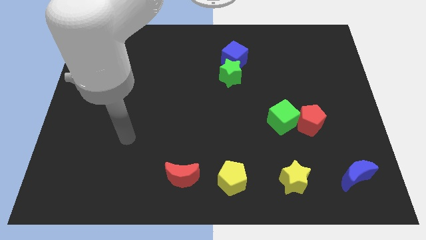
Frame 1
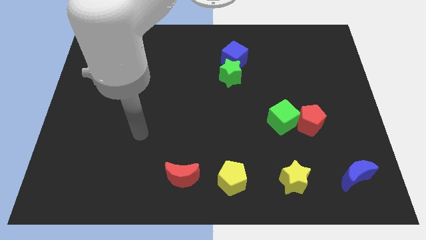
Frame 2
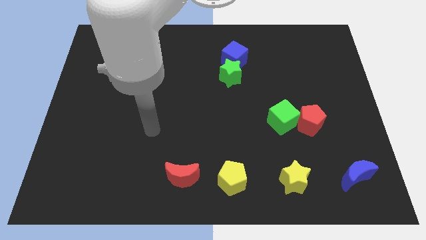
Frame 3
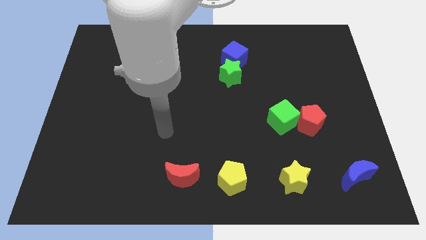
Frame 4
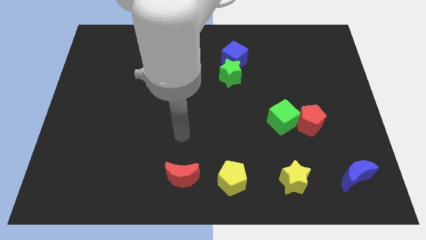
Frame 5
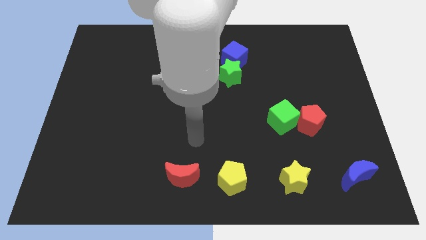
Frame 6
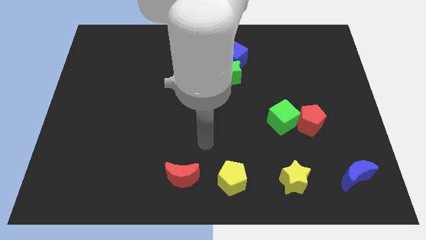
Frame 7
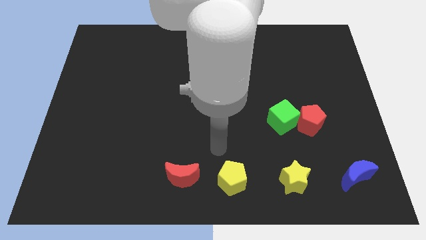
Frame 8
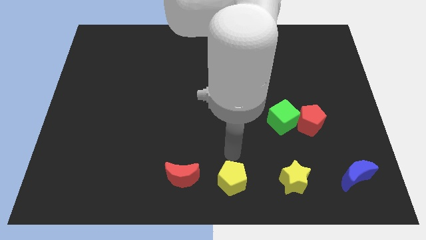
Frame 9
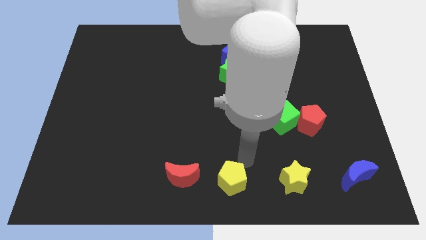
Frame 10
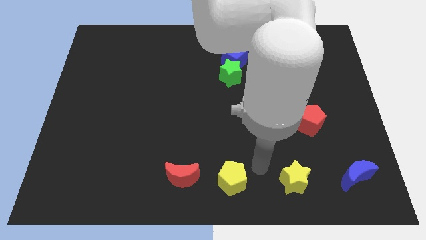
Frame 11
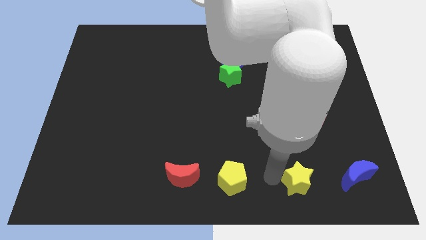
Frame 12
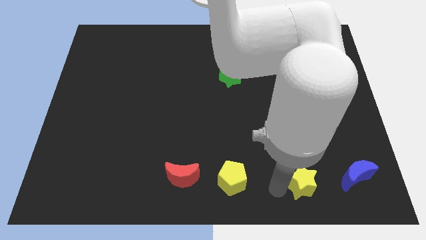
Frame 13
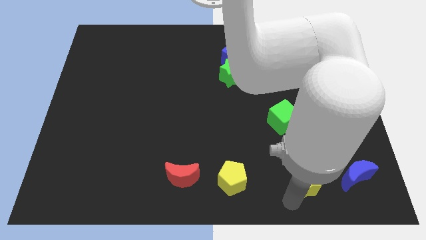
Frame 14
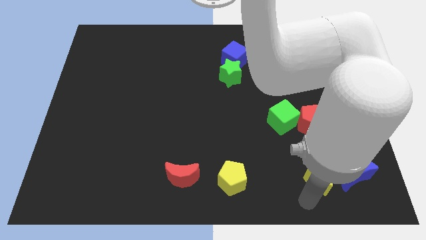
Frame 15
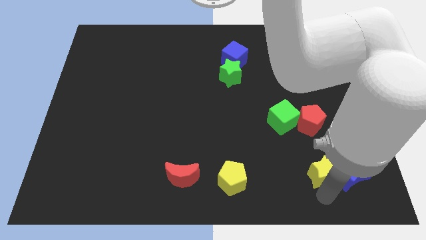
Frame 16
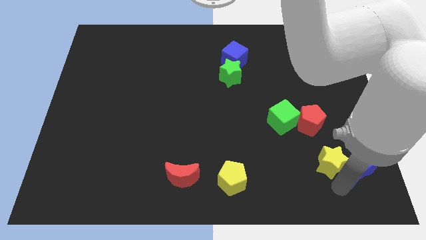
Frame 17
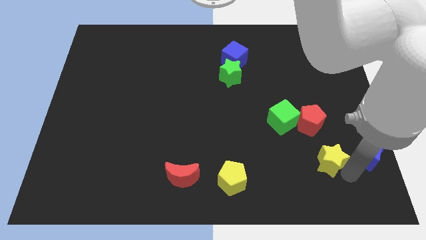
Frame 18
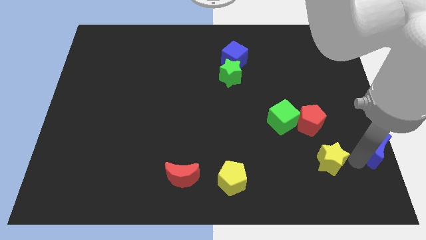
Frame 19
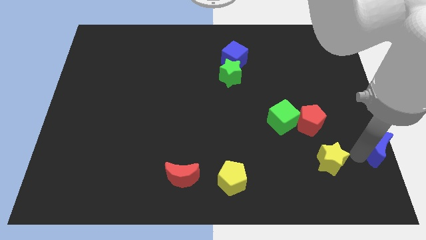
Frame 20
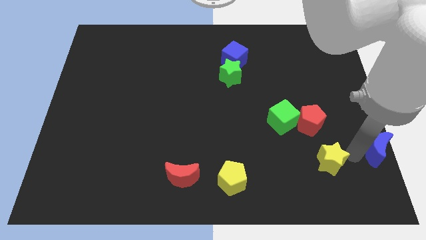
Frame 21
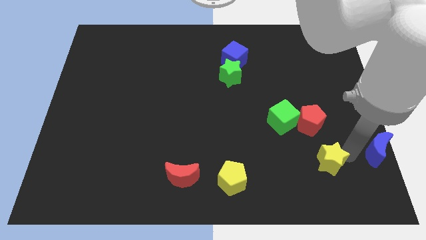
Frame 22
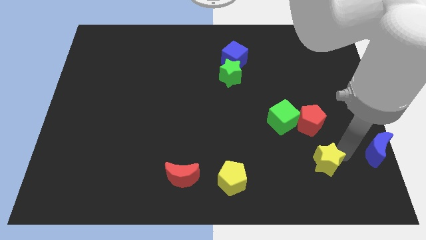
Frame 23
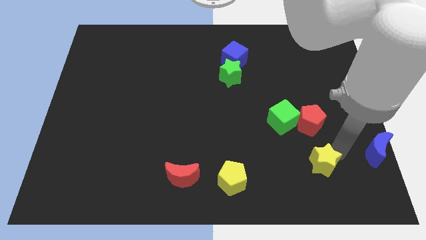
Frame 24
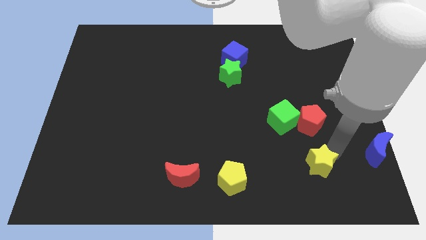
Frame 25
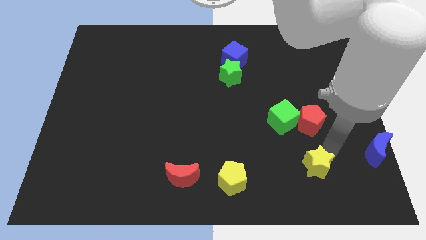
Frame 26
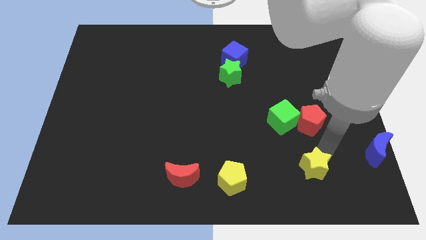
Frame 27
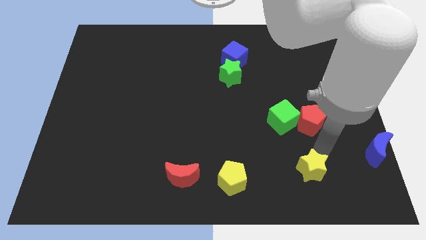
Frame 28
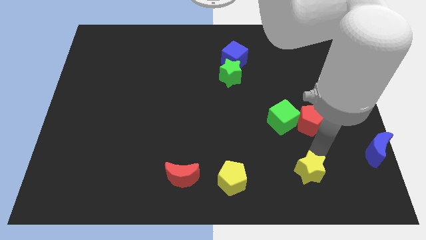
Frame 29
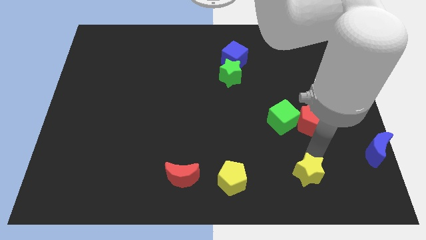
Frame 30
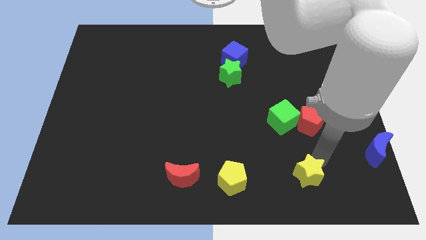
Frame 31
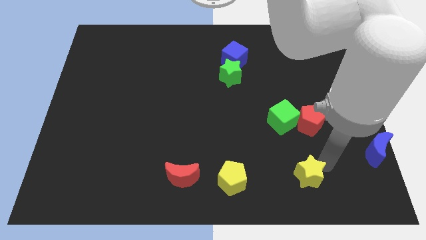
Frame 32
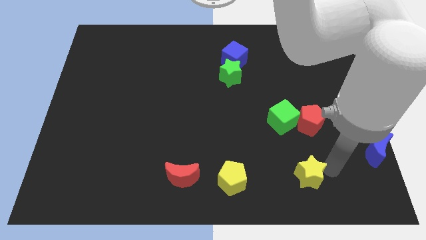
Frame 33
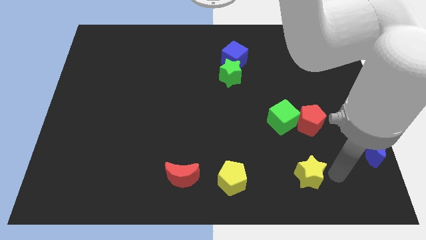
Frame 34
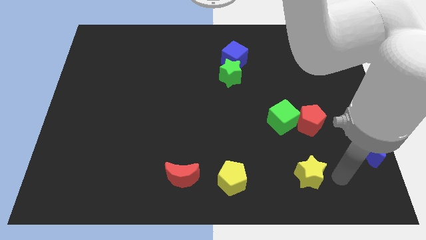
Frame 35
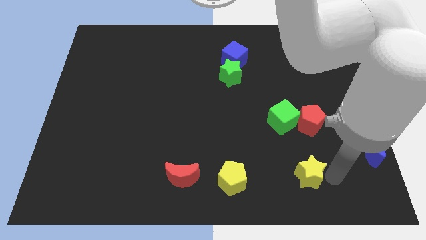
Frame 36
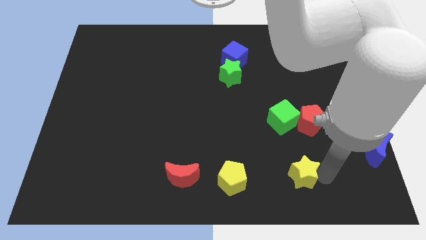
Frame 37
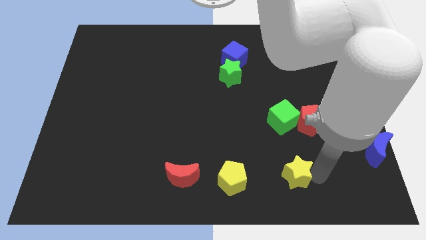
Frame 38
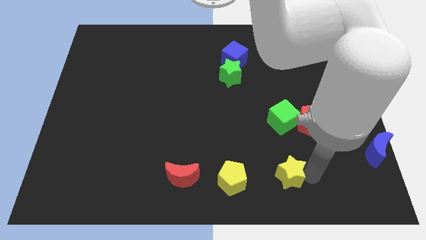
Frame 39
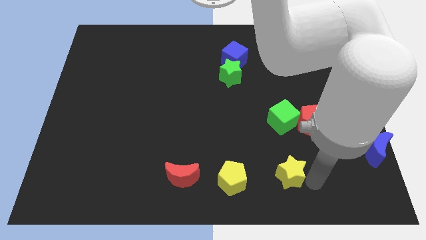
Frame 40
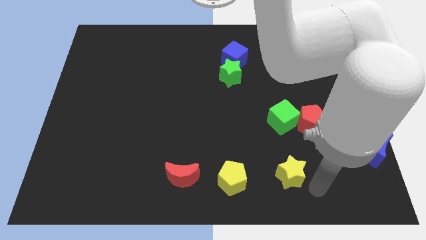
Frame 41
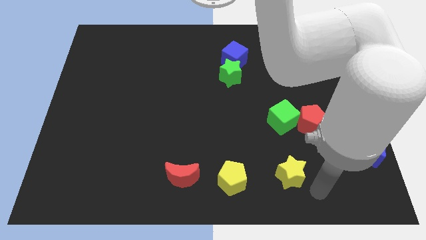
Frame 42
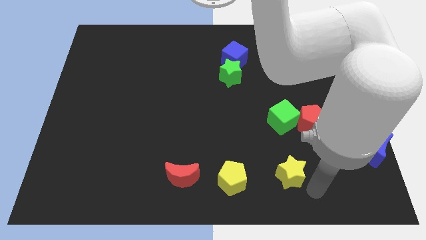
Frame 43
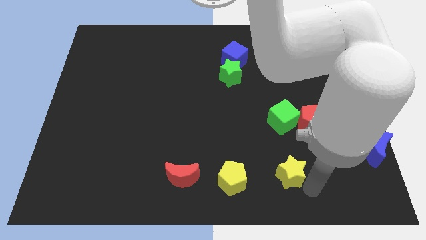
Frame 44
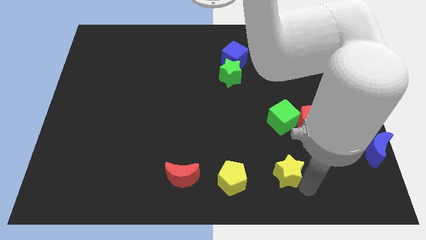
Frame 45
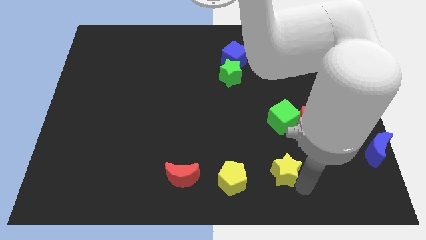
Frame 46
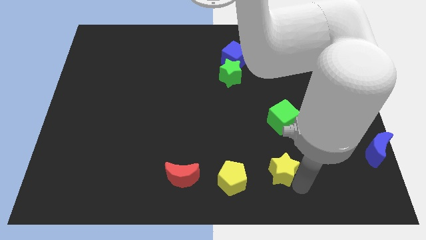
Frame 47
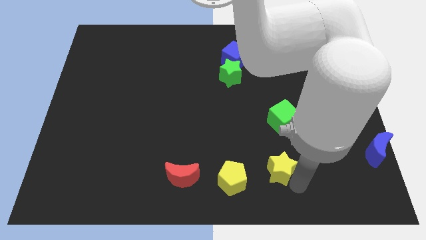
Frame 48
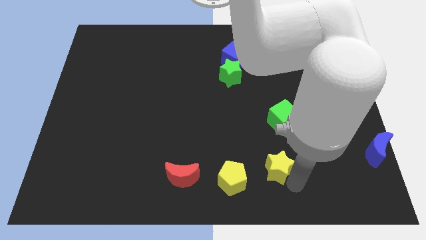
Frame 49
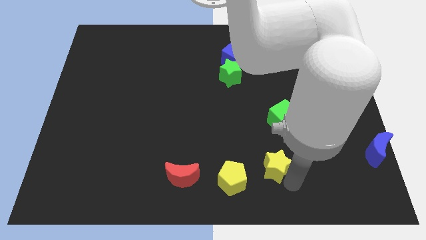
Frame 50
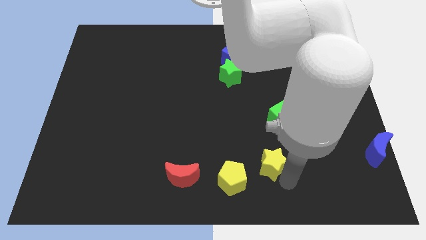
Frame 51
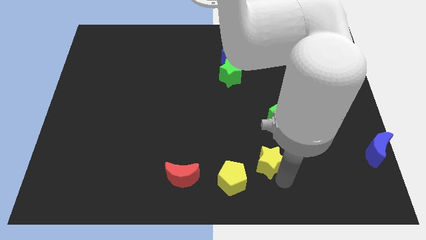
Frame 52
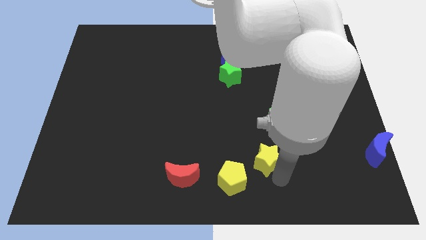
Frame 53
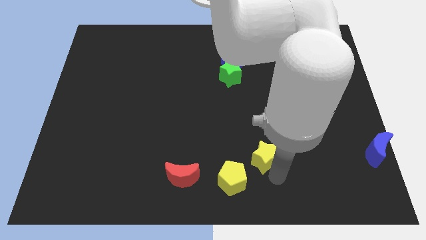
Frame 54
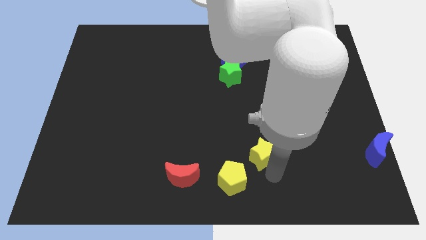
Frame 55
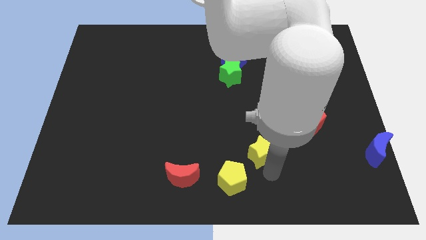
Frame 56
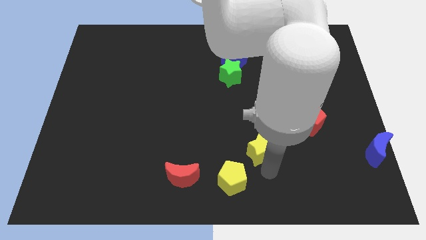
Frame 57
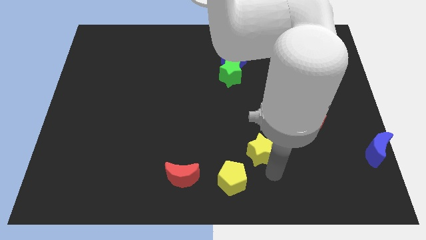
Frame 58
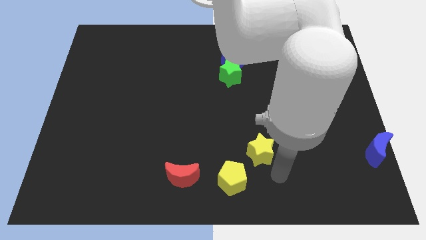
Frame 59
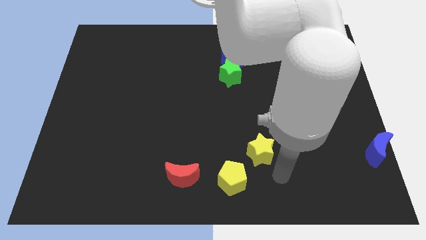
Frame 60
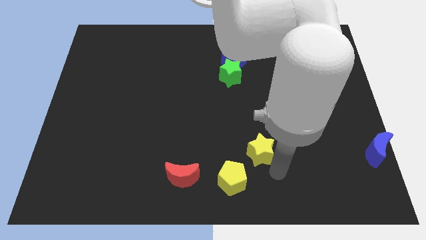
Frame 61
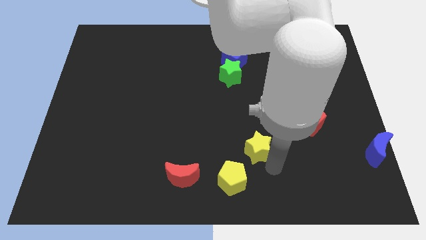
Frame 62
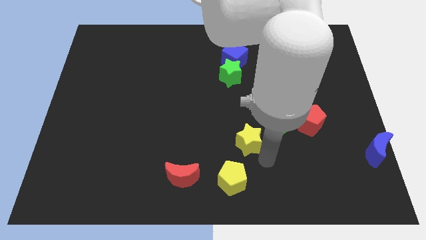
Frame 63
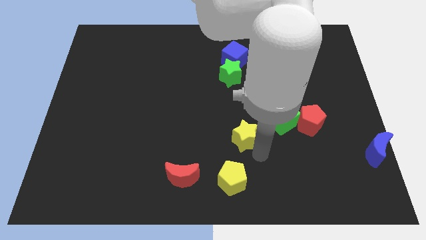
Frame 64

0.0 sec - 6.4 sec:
slide the yellow star to the left of the green cube

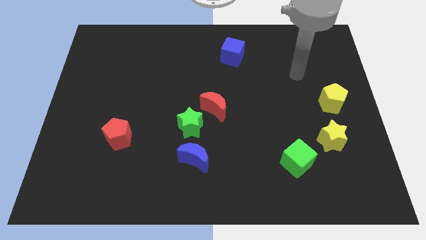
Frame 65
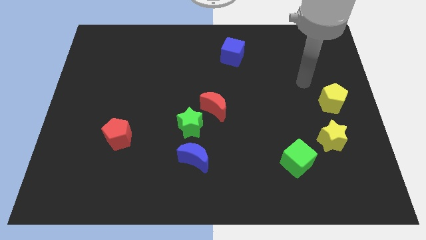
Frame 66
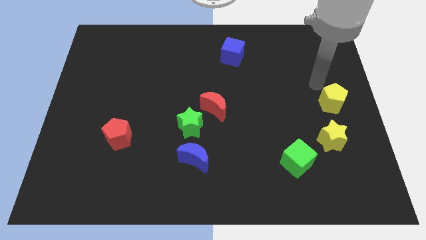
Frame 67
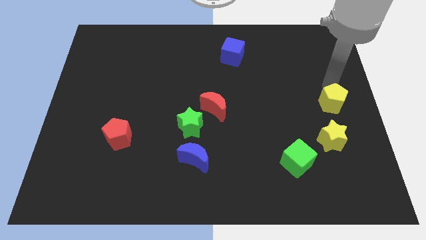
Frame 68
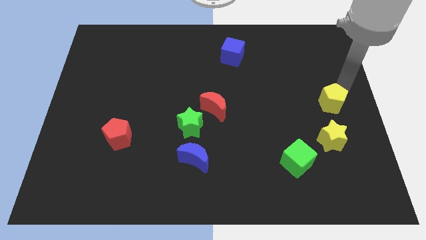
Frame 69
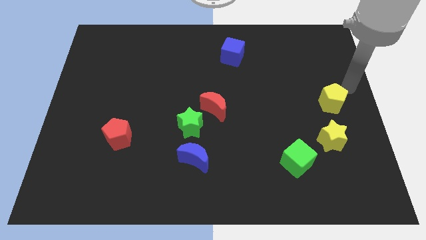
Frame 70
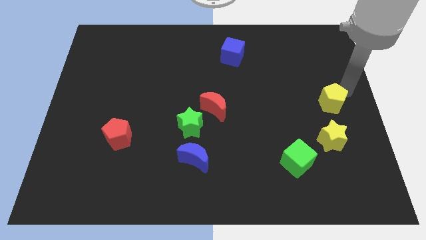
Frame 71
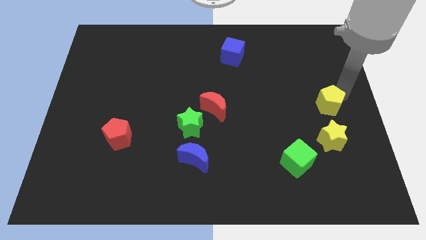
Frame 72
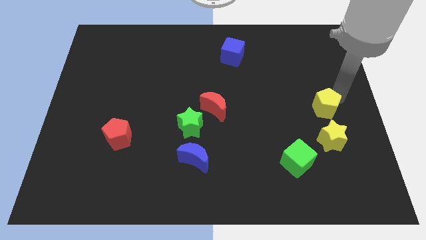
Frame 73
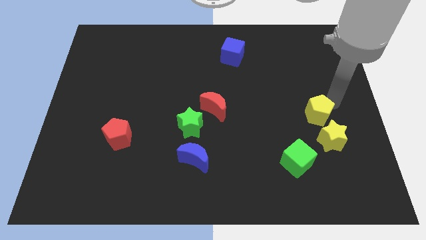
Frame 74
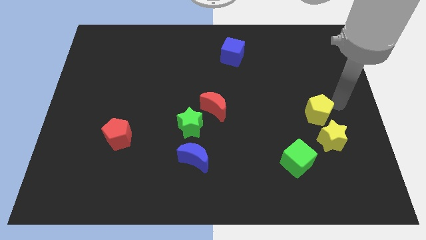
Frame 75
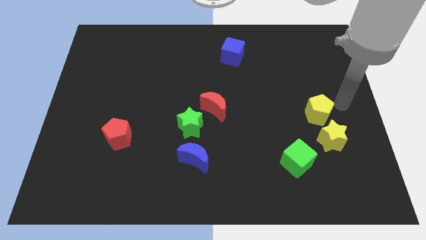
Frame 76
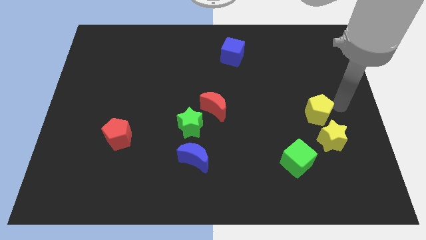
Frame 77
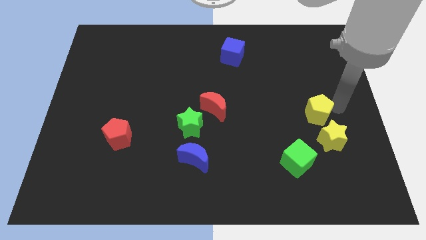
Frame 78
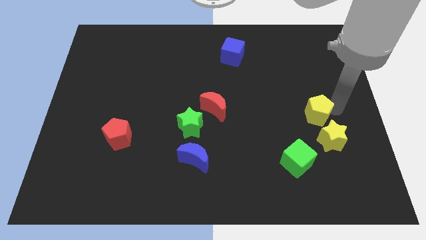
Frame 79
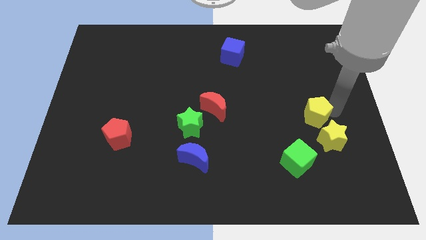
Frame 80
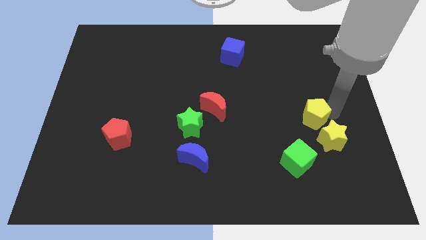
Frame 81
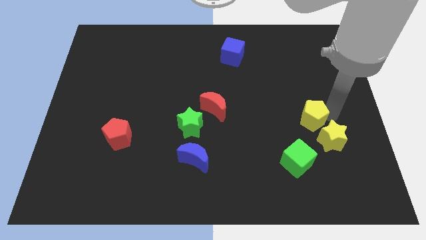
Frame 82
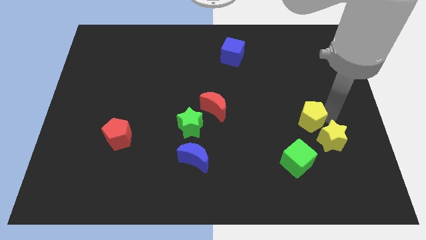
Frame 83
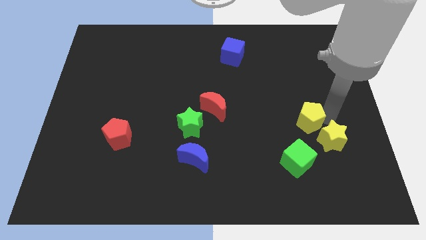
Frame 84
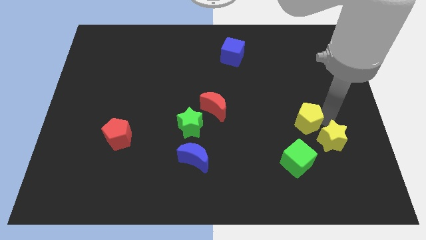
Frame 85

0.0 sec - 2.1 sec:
push the yellow pentagon to the left of the yellow star
